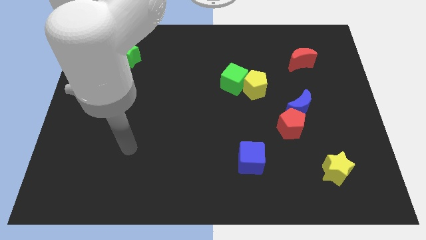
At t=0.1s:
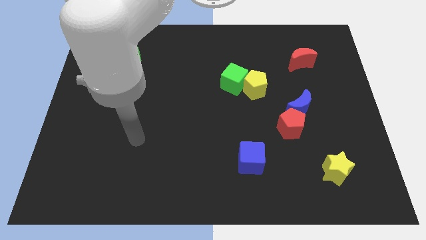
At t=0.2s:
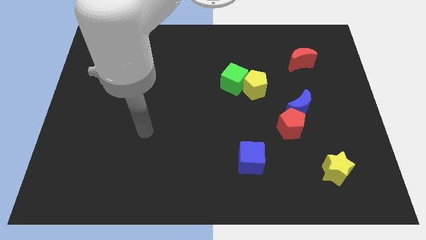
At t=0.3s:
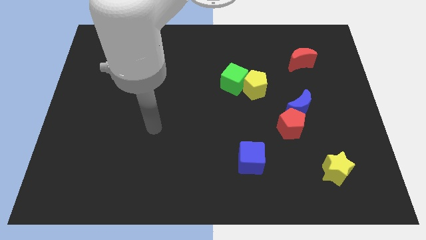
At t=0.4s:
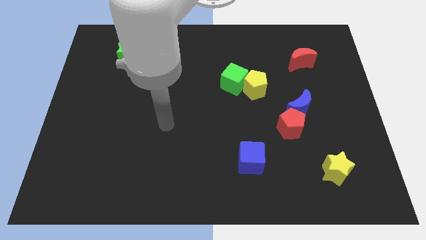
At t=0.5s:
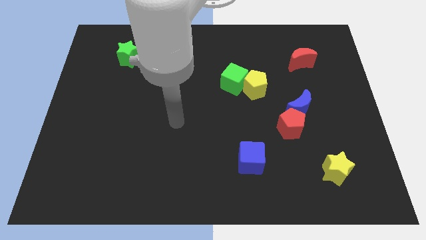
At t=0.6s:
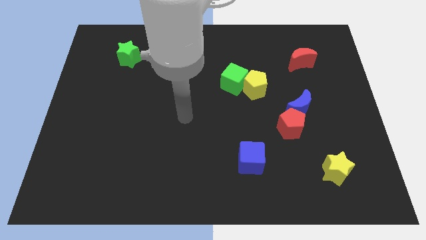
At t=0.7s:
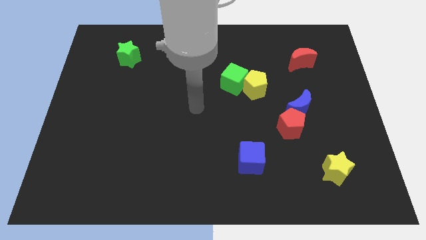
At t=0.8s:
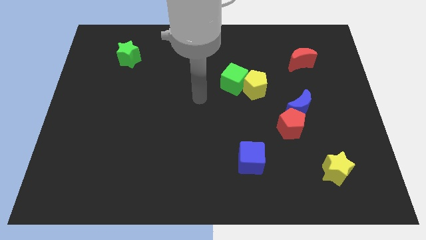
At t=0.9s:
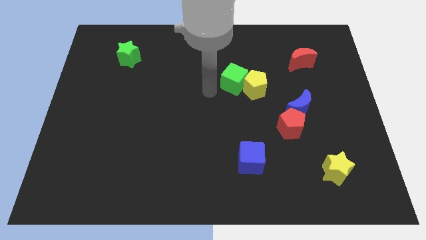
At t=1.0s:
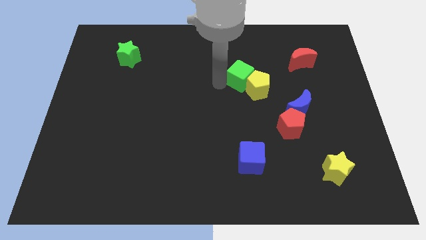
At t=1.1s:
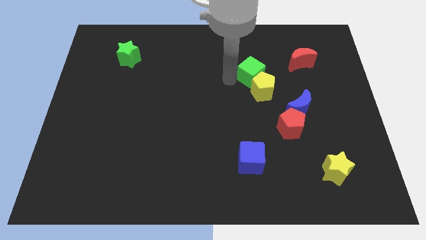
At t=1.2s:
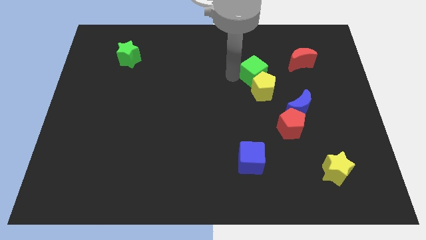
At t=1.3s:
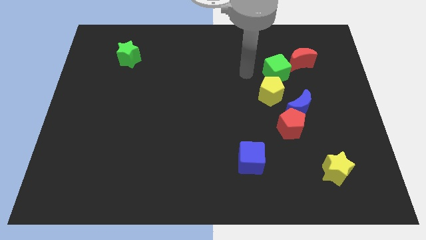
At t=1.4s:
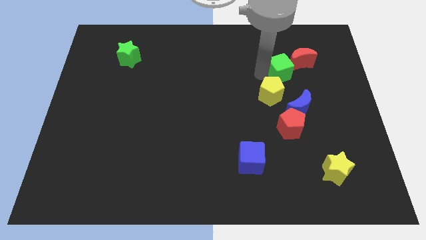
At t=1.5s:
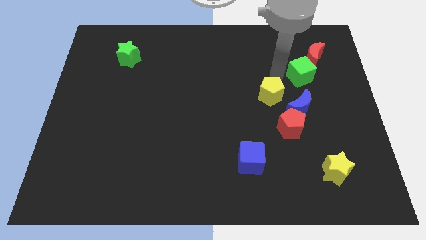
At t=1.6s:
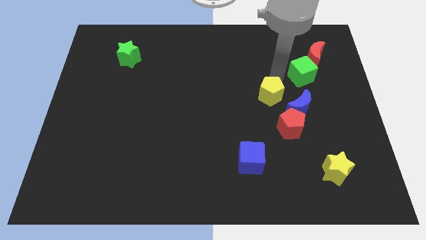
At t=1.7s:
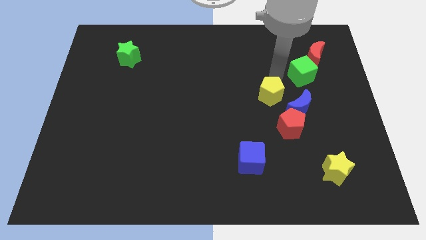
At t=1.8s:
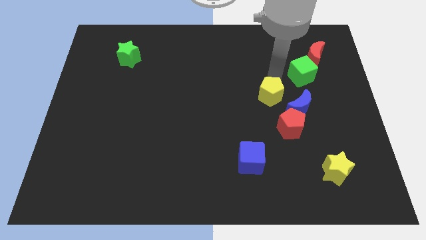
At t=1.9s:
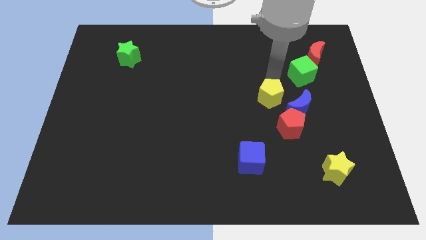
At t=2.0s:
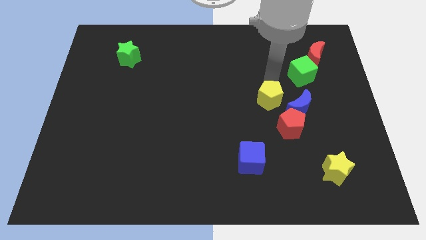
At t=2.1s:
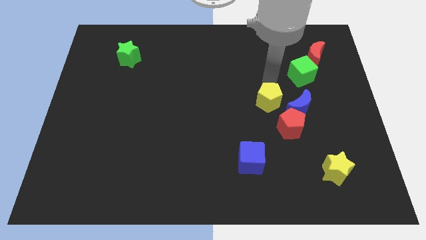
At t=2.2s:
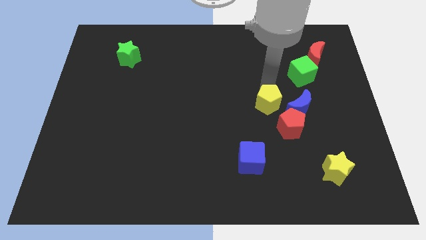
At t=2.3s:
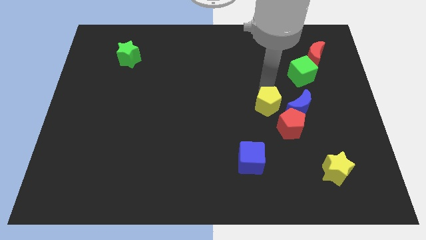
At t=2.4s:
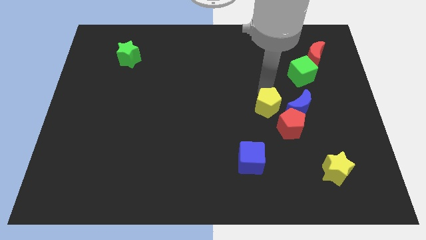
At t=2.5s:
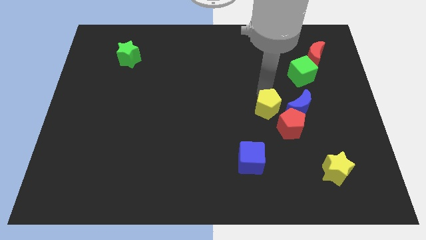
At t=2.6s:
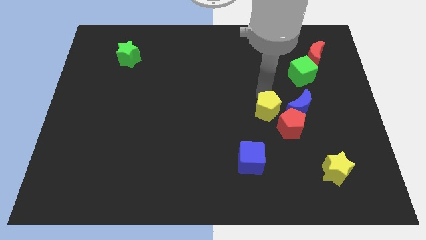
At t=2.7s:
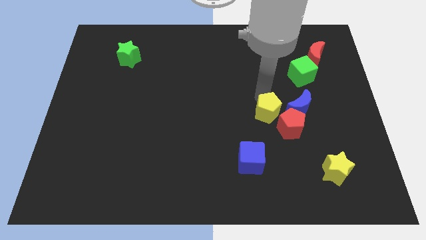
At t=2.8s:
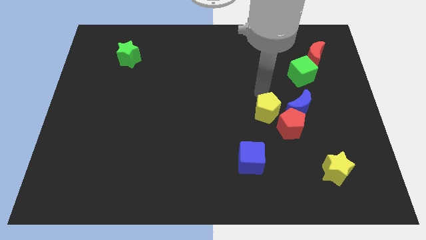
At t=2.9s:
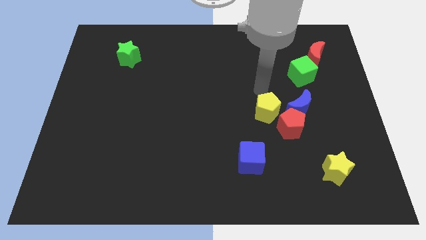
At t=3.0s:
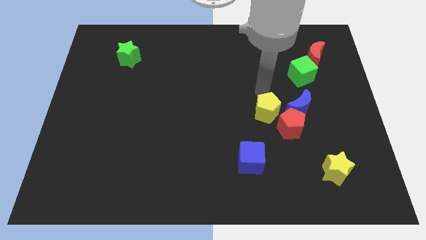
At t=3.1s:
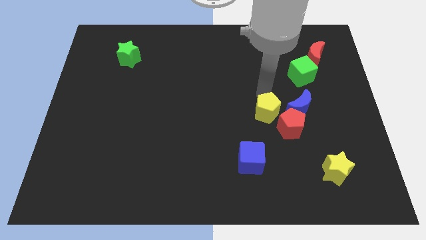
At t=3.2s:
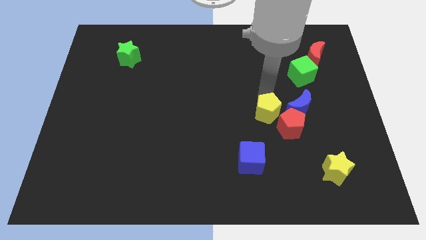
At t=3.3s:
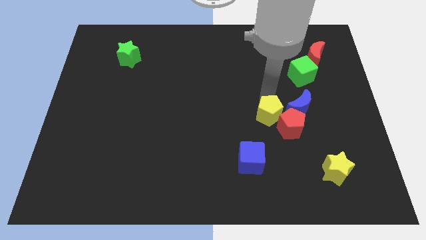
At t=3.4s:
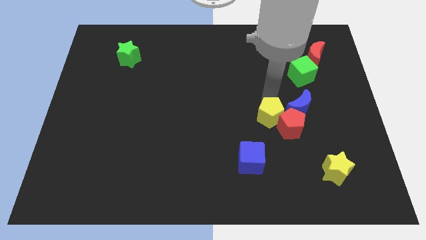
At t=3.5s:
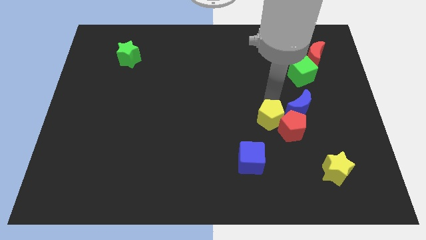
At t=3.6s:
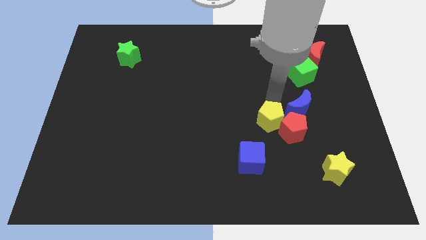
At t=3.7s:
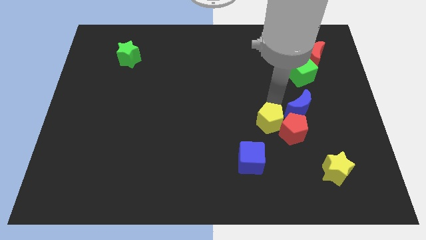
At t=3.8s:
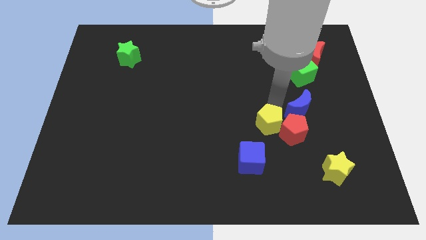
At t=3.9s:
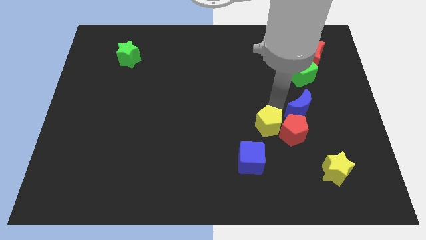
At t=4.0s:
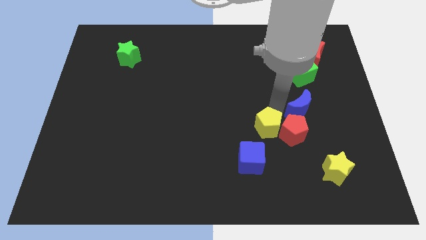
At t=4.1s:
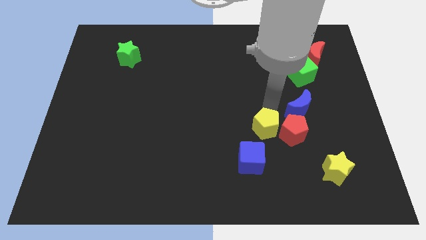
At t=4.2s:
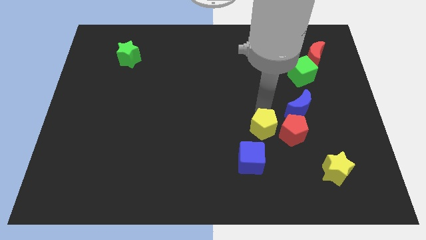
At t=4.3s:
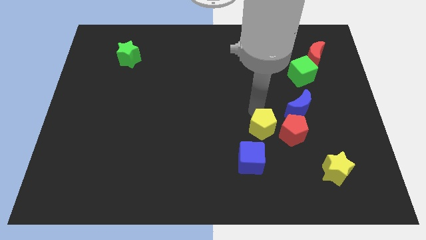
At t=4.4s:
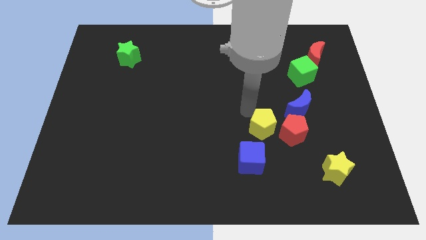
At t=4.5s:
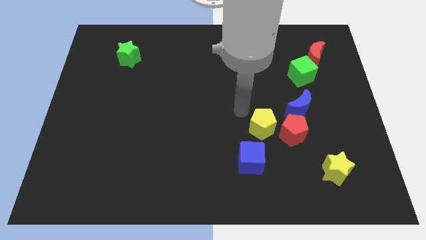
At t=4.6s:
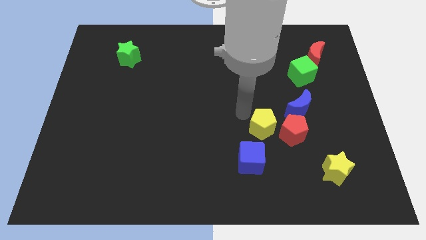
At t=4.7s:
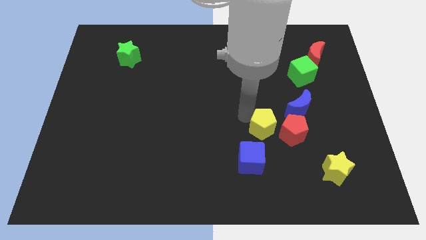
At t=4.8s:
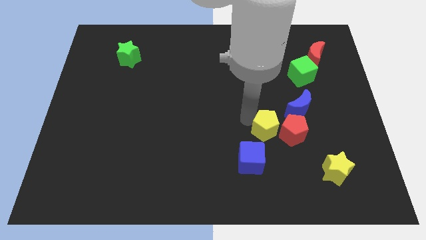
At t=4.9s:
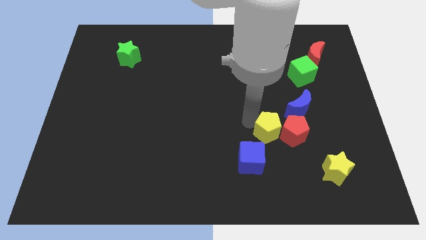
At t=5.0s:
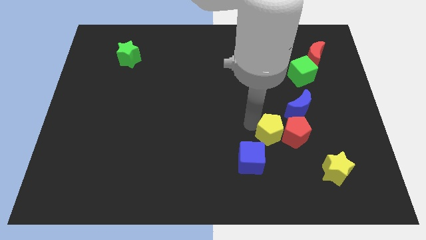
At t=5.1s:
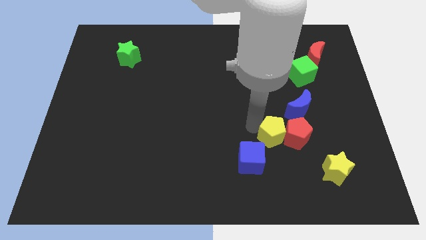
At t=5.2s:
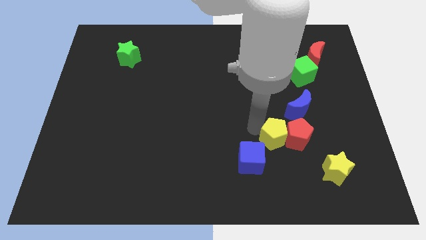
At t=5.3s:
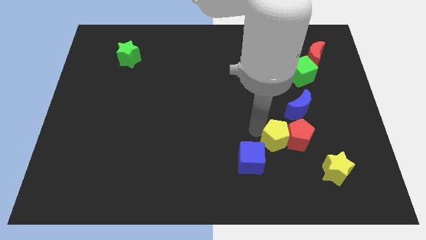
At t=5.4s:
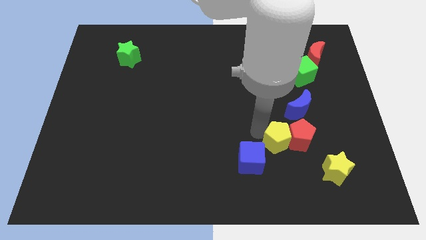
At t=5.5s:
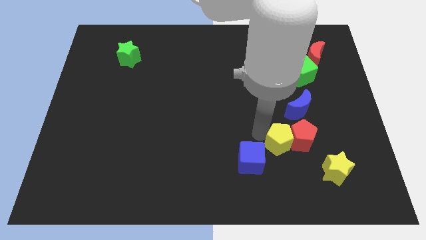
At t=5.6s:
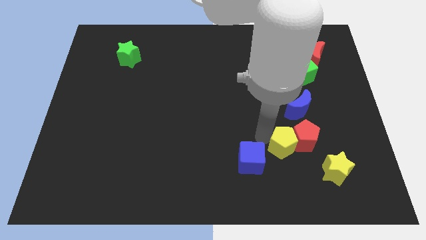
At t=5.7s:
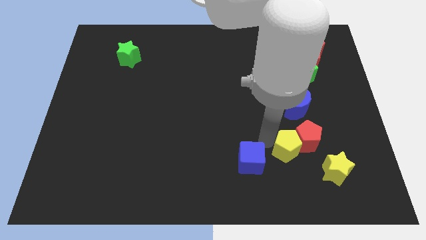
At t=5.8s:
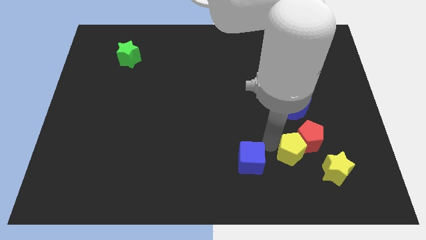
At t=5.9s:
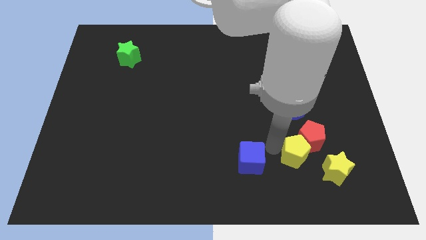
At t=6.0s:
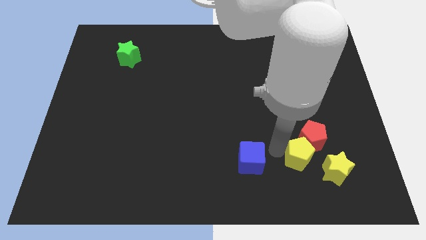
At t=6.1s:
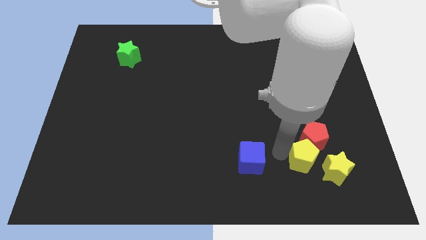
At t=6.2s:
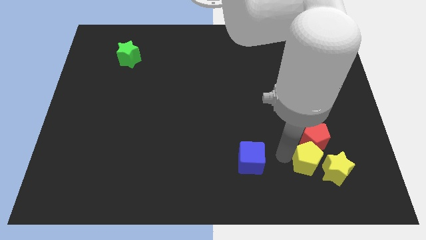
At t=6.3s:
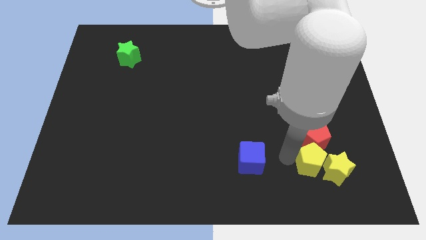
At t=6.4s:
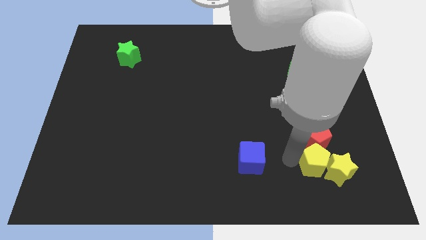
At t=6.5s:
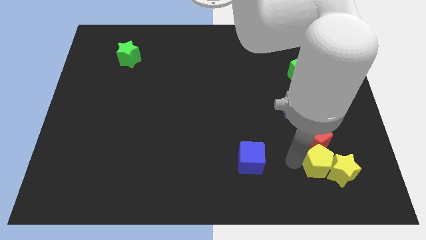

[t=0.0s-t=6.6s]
push the yellow pentagon to the bottom right of the red pentagon

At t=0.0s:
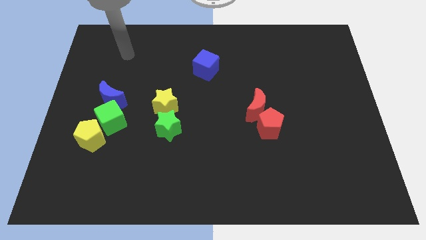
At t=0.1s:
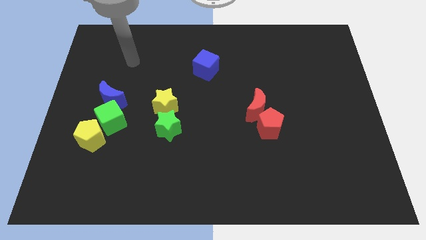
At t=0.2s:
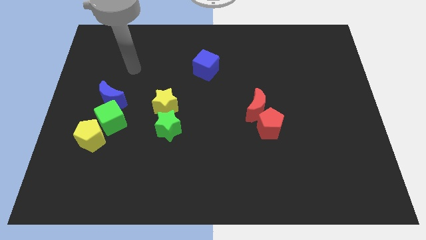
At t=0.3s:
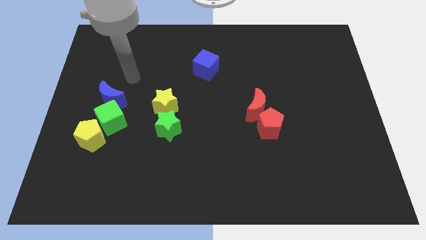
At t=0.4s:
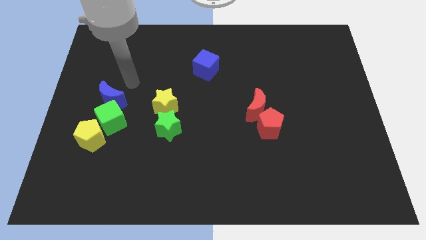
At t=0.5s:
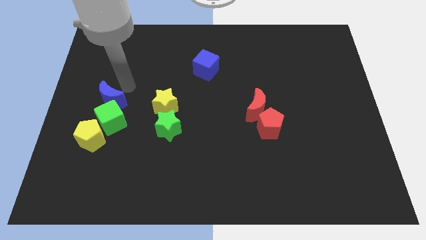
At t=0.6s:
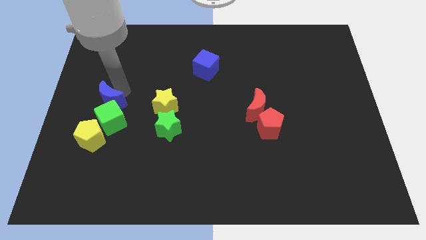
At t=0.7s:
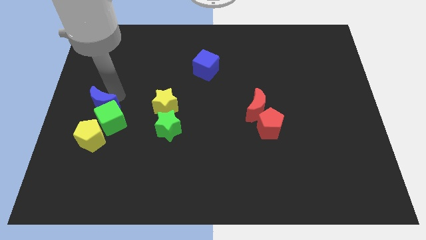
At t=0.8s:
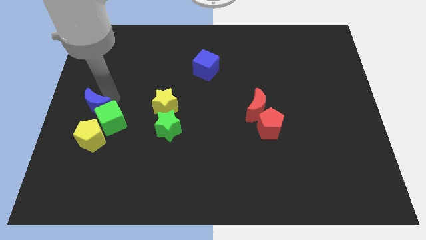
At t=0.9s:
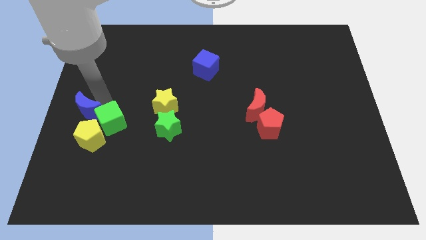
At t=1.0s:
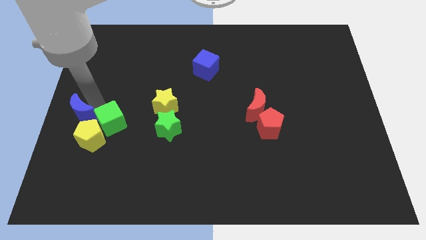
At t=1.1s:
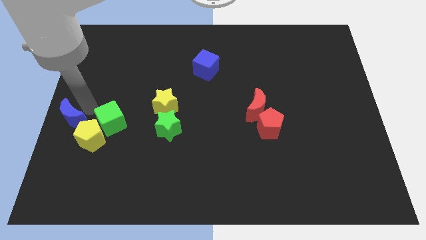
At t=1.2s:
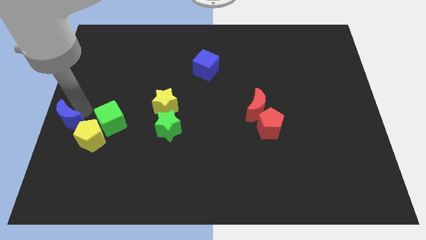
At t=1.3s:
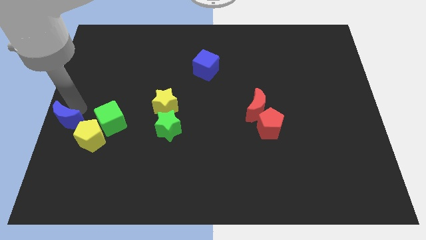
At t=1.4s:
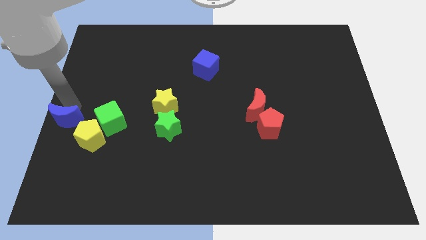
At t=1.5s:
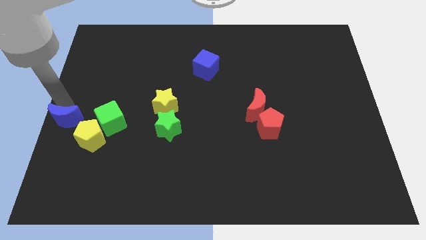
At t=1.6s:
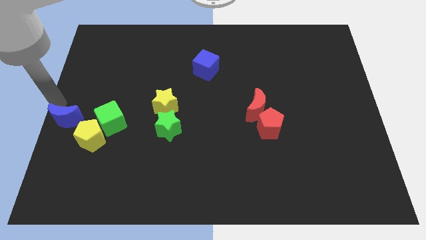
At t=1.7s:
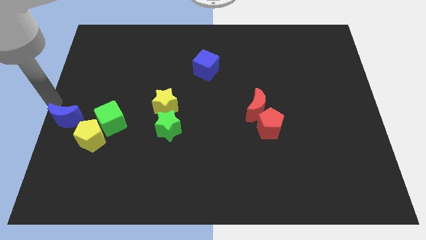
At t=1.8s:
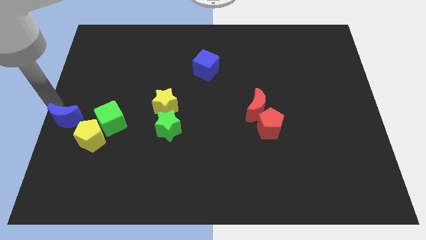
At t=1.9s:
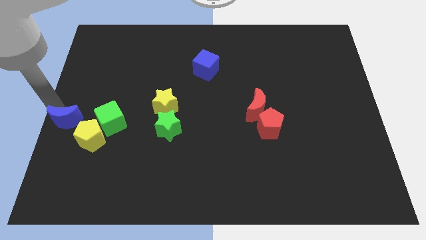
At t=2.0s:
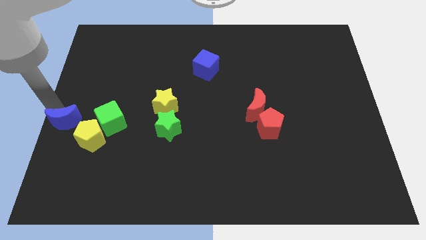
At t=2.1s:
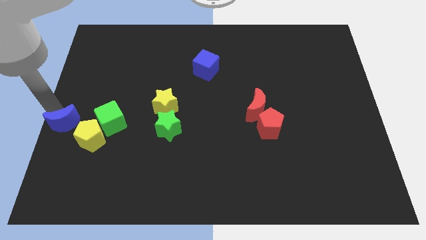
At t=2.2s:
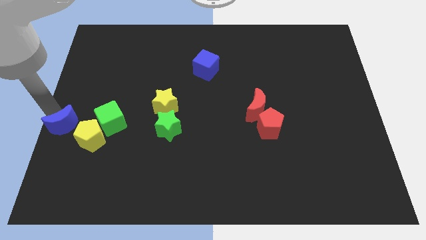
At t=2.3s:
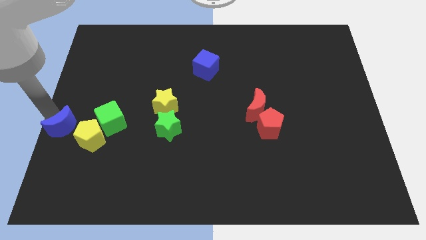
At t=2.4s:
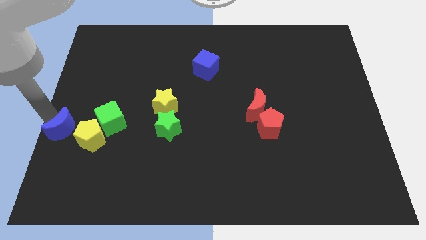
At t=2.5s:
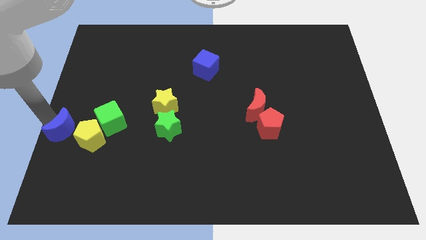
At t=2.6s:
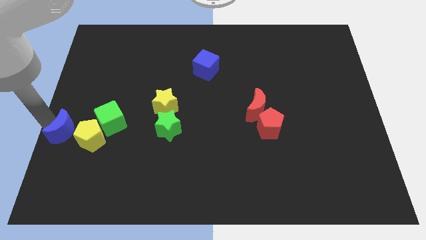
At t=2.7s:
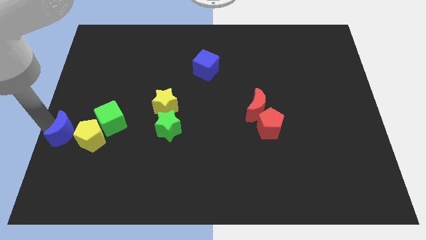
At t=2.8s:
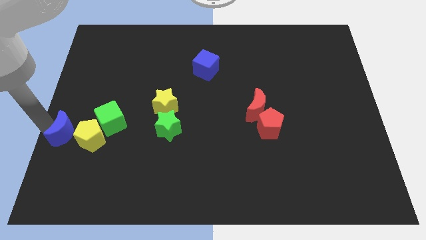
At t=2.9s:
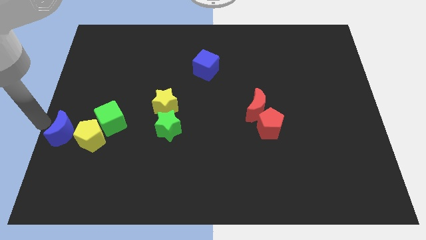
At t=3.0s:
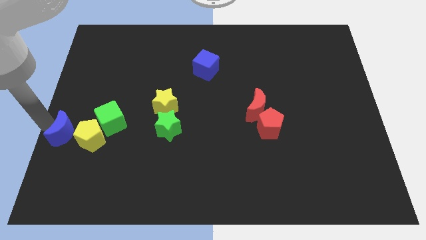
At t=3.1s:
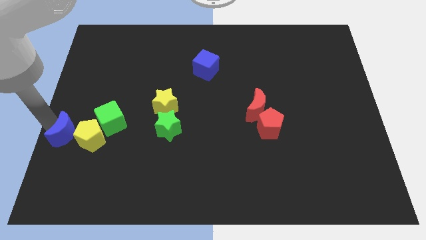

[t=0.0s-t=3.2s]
move the blue moon to the bottom left side of the green cube
